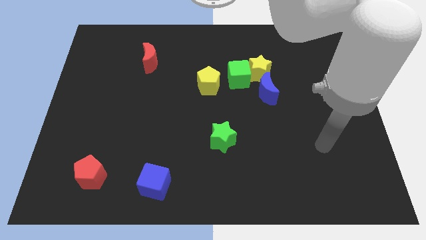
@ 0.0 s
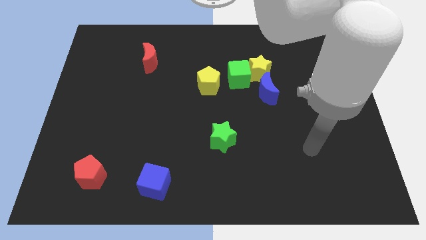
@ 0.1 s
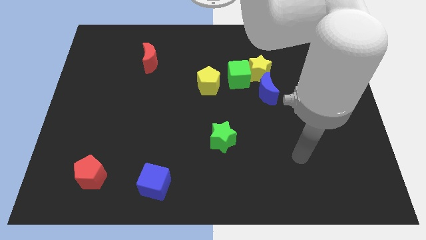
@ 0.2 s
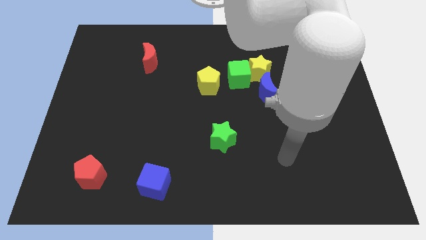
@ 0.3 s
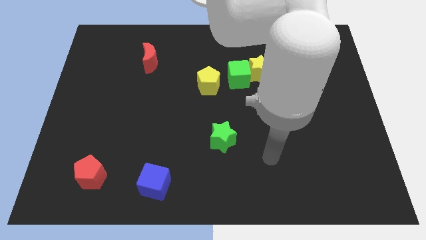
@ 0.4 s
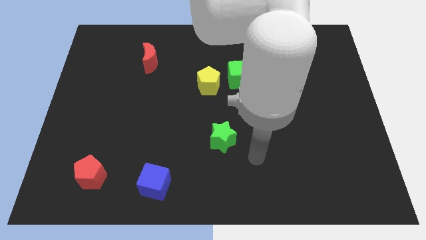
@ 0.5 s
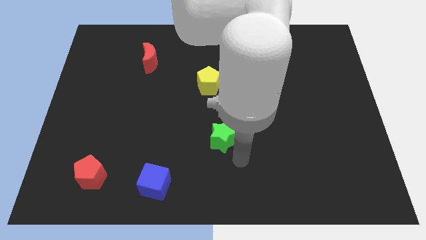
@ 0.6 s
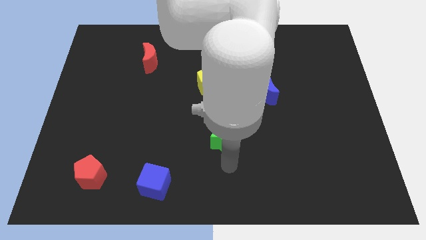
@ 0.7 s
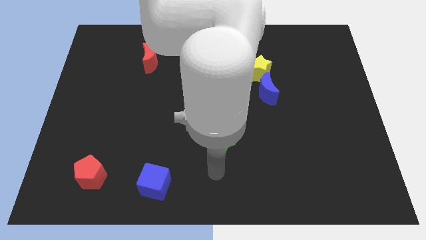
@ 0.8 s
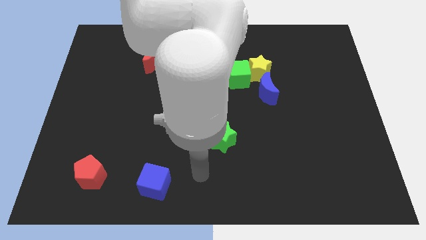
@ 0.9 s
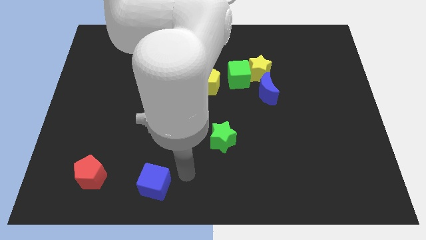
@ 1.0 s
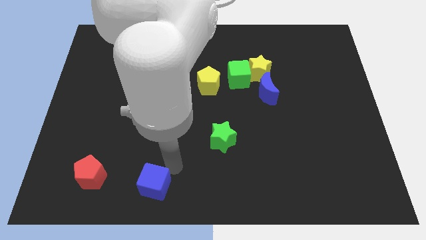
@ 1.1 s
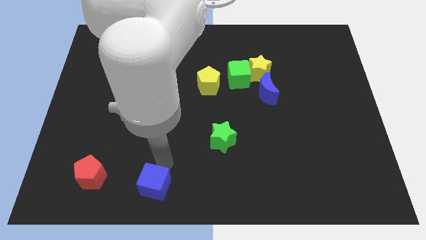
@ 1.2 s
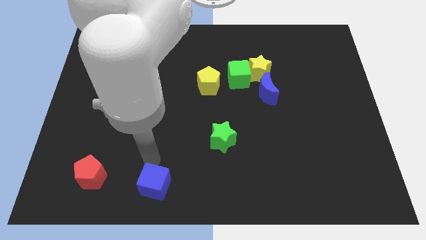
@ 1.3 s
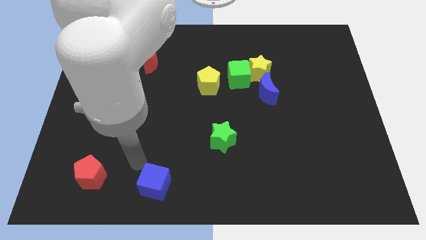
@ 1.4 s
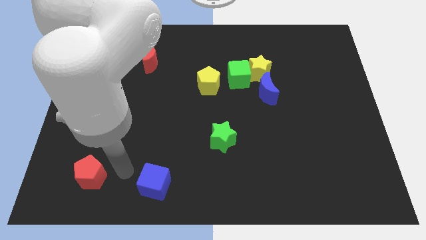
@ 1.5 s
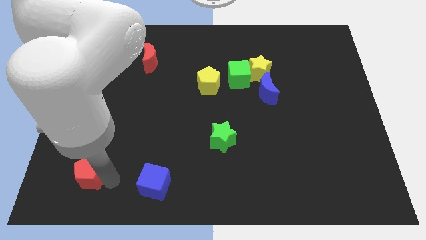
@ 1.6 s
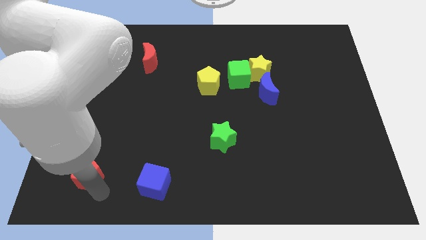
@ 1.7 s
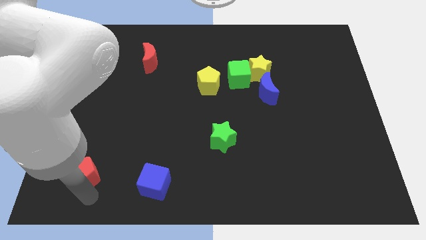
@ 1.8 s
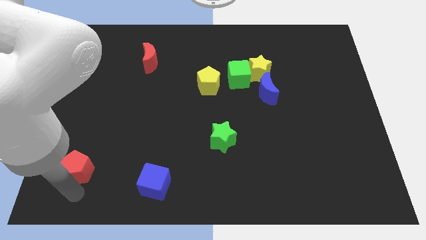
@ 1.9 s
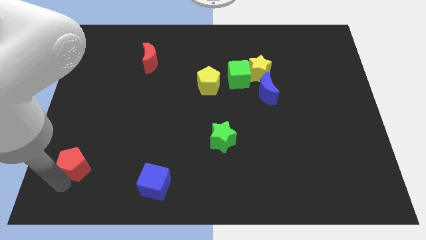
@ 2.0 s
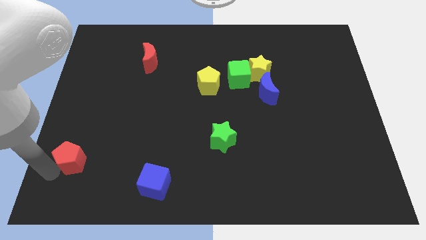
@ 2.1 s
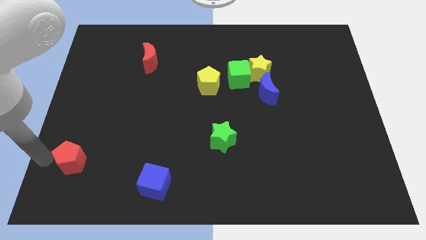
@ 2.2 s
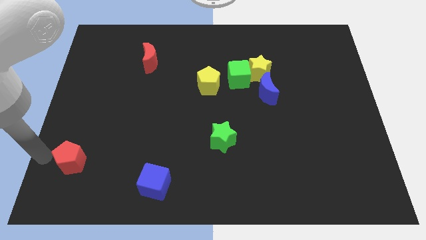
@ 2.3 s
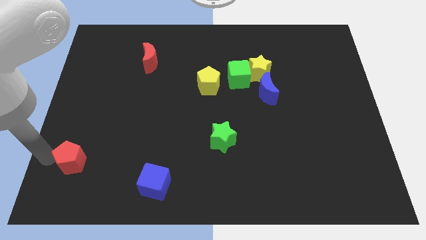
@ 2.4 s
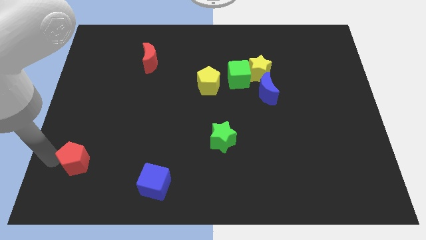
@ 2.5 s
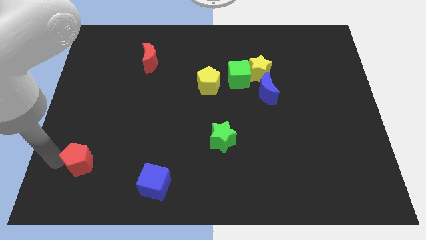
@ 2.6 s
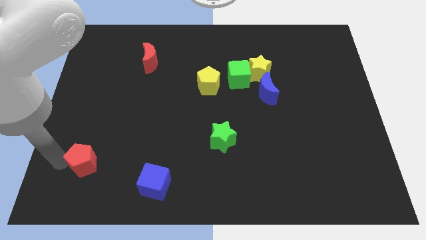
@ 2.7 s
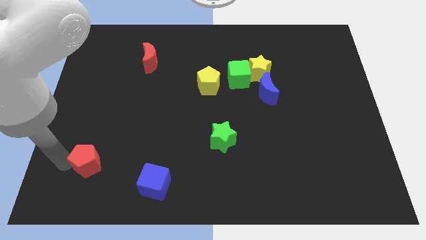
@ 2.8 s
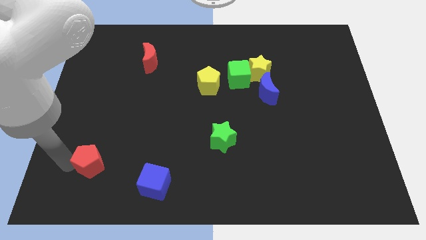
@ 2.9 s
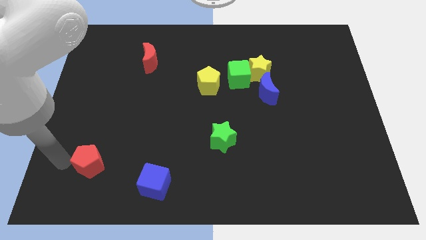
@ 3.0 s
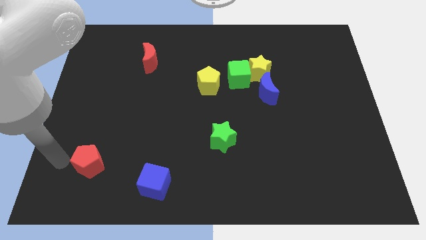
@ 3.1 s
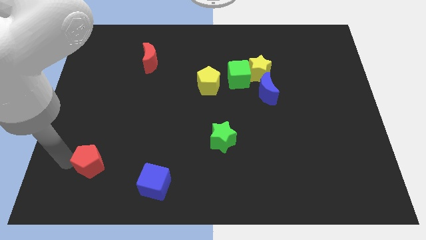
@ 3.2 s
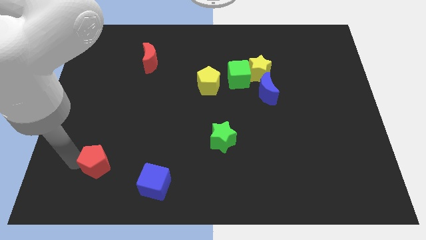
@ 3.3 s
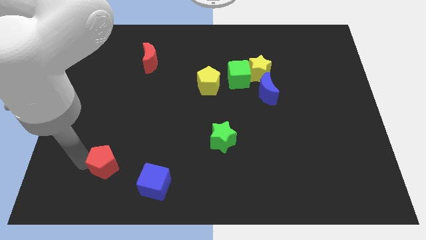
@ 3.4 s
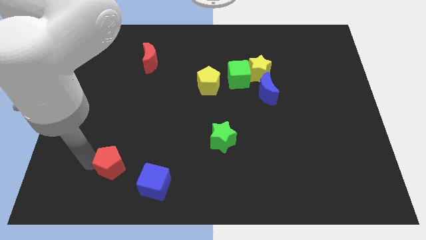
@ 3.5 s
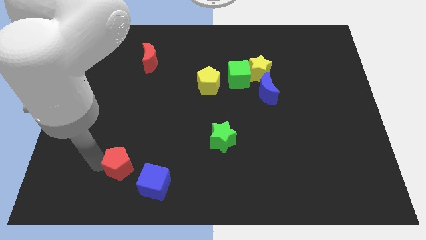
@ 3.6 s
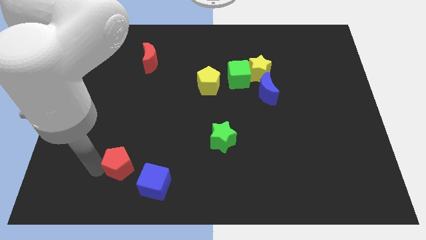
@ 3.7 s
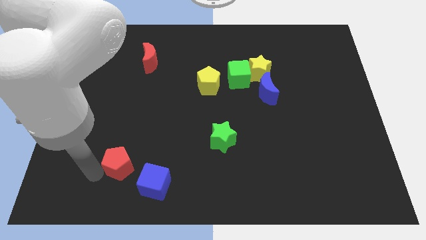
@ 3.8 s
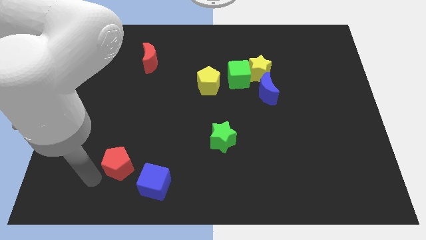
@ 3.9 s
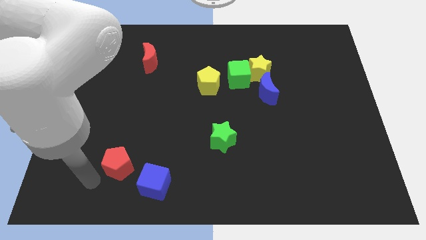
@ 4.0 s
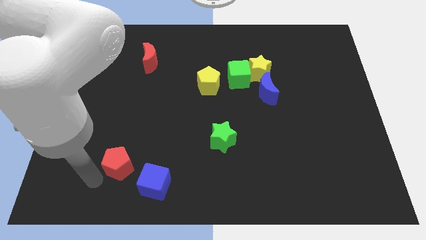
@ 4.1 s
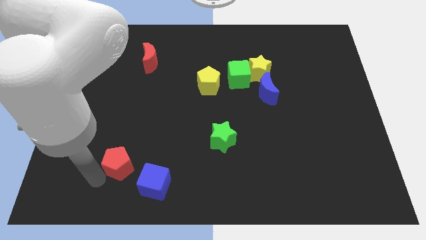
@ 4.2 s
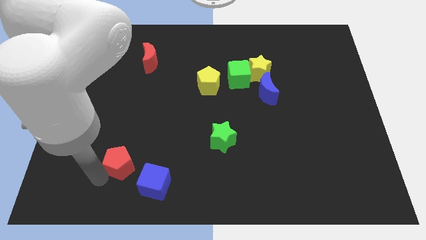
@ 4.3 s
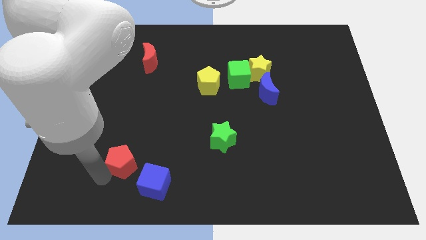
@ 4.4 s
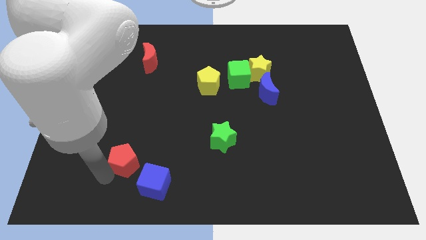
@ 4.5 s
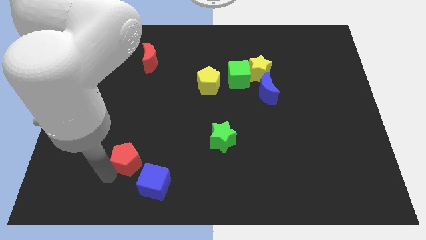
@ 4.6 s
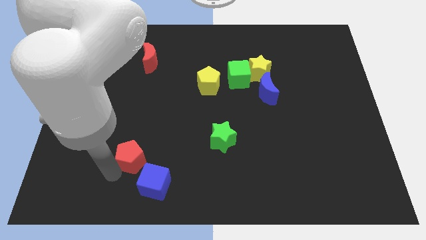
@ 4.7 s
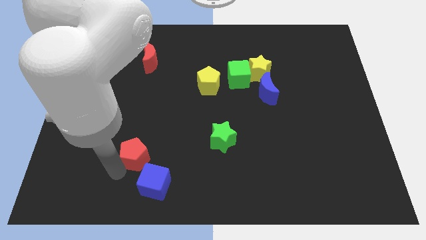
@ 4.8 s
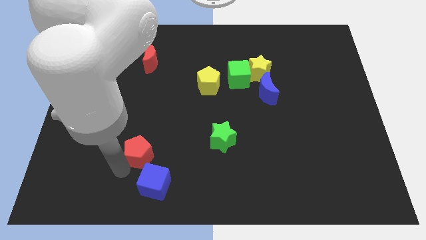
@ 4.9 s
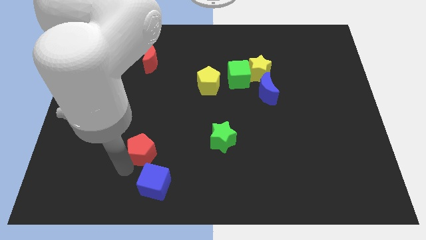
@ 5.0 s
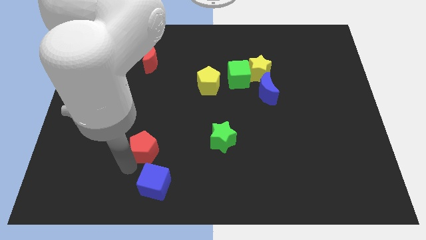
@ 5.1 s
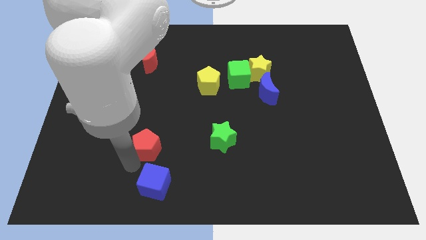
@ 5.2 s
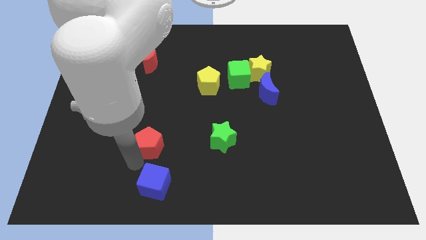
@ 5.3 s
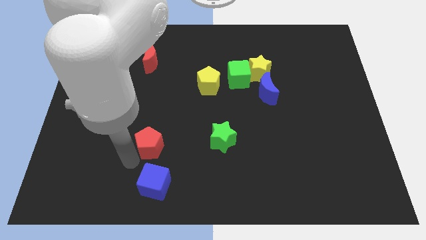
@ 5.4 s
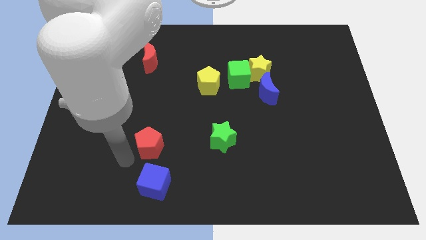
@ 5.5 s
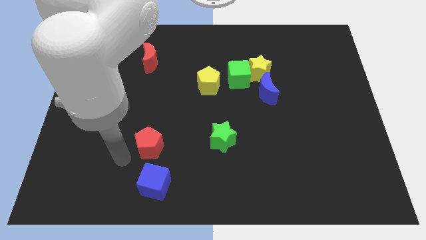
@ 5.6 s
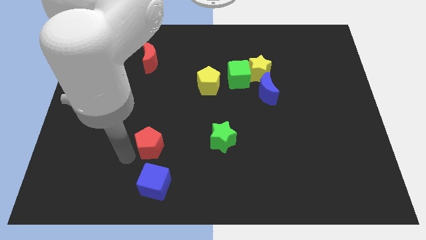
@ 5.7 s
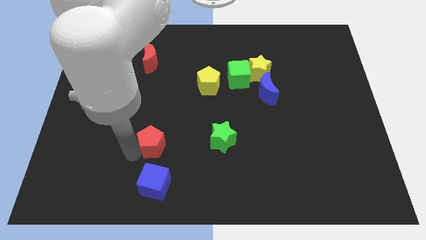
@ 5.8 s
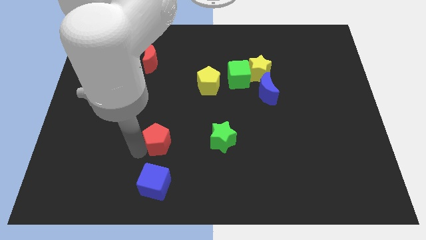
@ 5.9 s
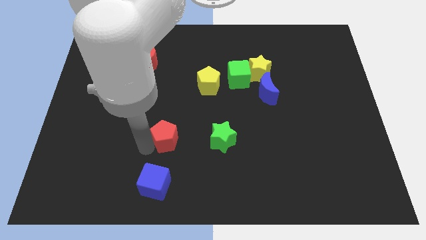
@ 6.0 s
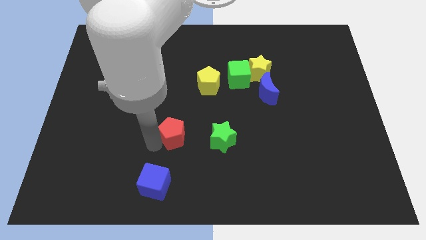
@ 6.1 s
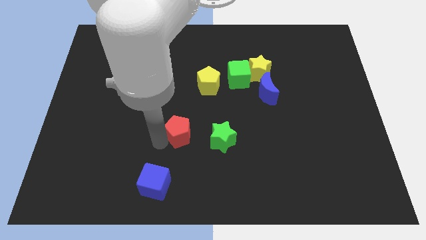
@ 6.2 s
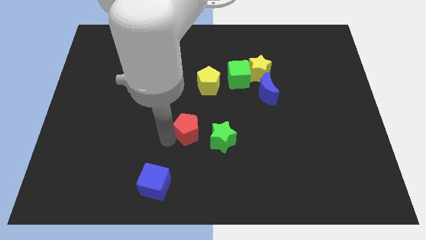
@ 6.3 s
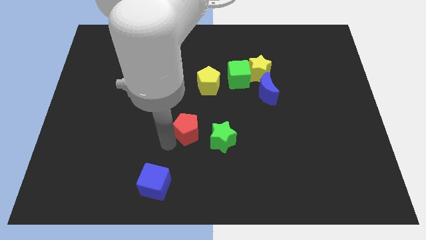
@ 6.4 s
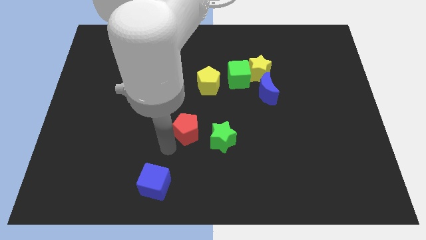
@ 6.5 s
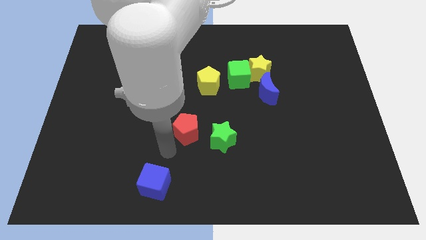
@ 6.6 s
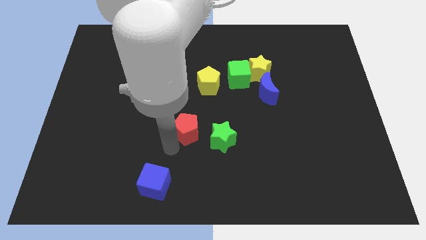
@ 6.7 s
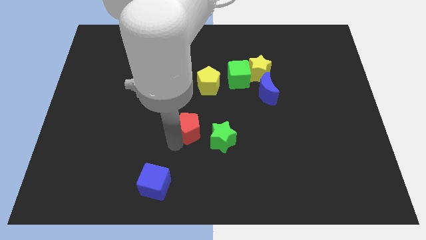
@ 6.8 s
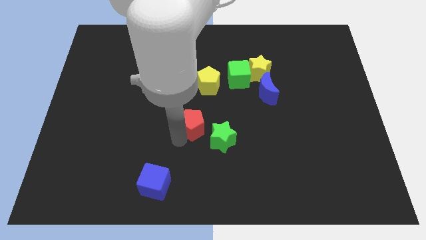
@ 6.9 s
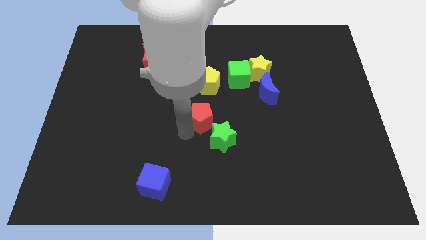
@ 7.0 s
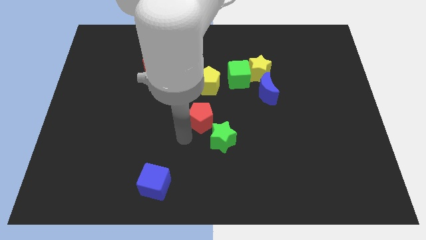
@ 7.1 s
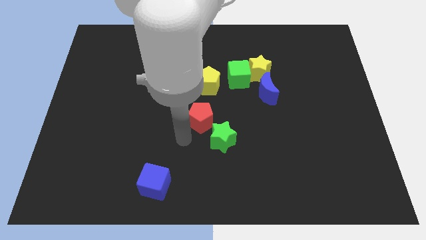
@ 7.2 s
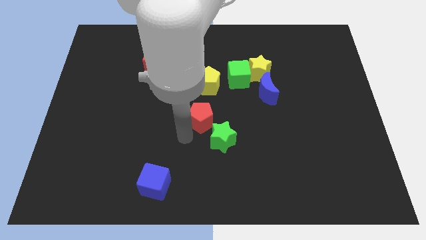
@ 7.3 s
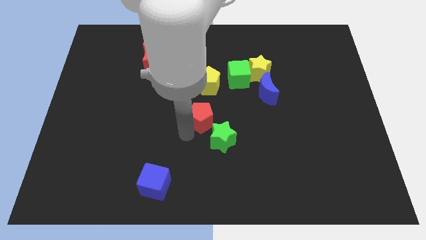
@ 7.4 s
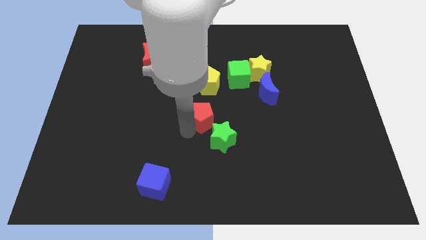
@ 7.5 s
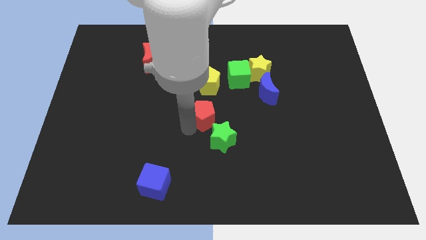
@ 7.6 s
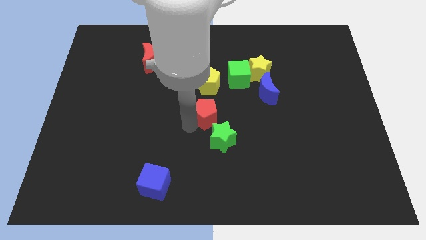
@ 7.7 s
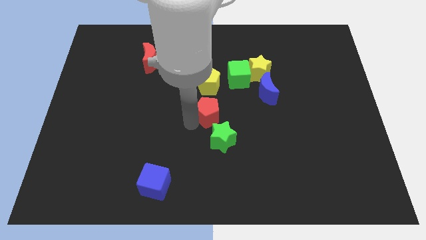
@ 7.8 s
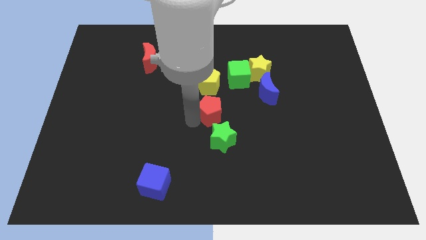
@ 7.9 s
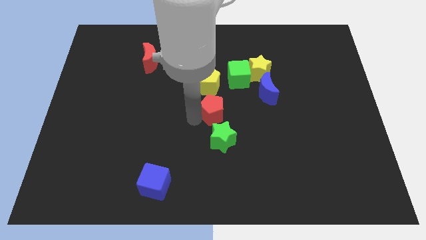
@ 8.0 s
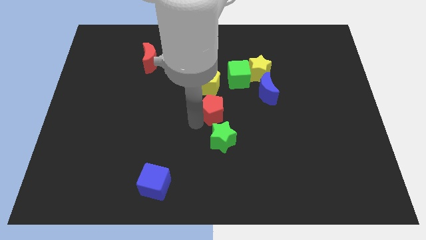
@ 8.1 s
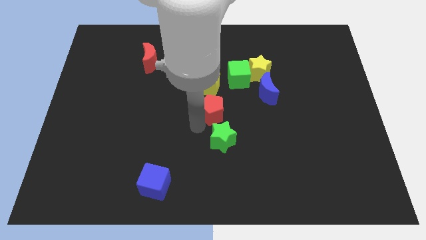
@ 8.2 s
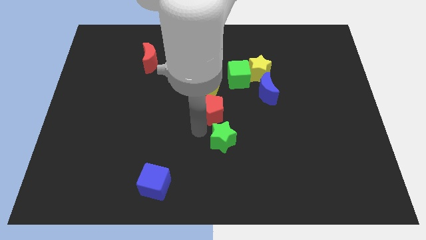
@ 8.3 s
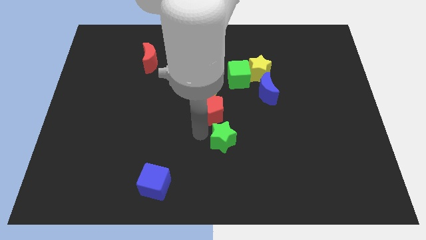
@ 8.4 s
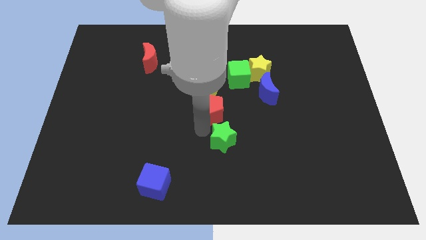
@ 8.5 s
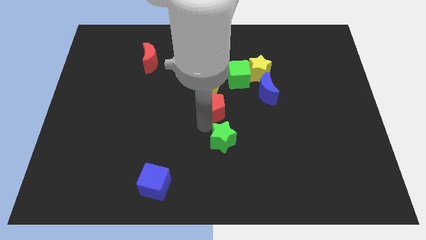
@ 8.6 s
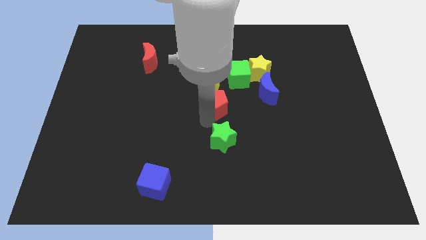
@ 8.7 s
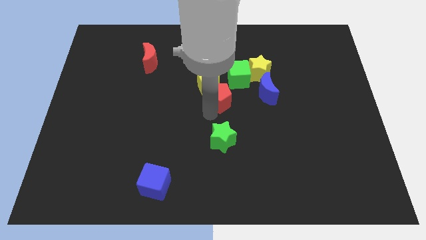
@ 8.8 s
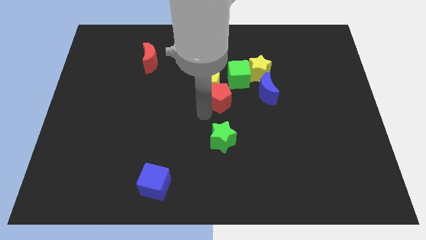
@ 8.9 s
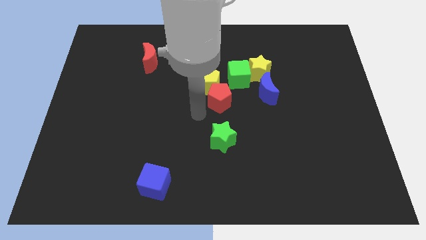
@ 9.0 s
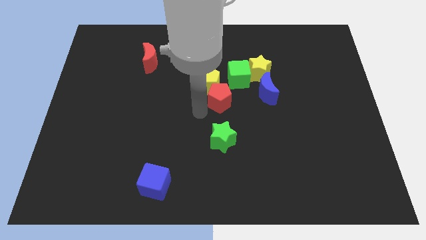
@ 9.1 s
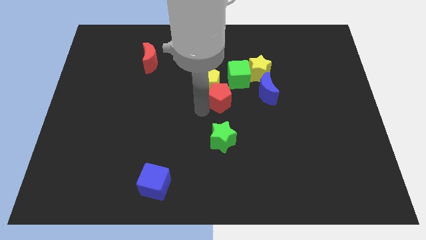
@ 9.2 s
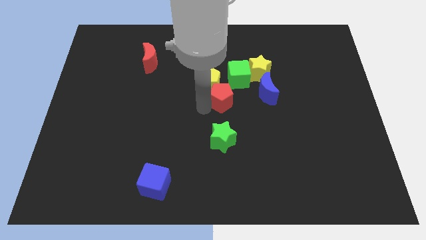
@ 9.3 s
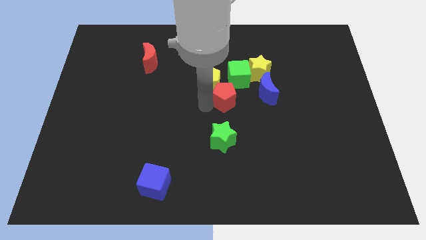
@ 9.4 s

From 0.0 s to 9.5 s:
slide the red pentagon to the bottom left of the yellow star
